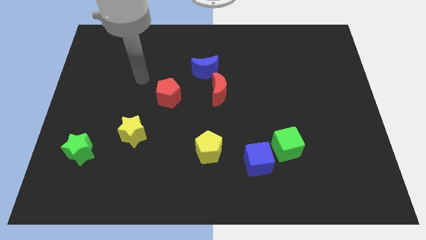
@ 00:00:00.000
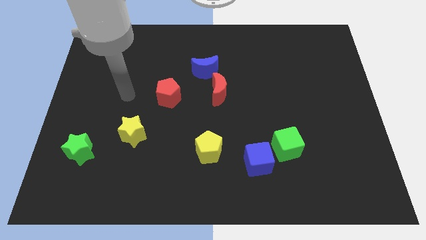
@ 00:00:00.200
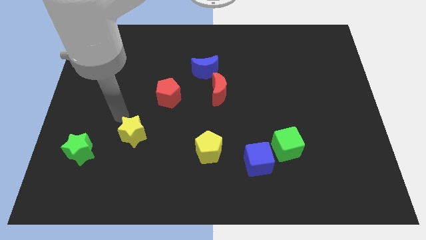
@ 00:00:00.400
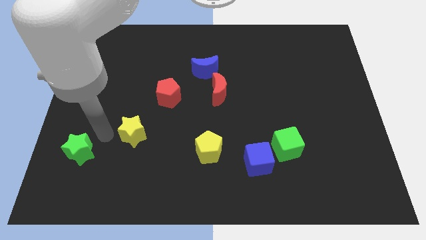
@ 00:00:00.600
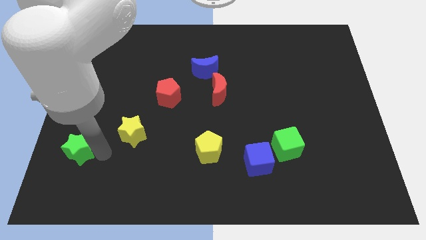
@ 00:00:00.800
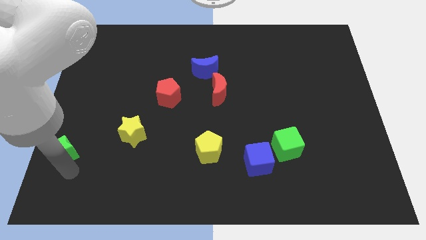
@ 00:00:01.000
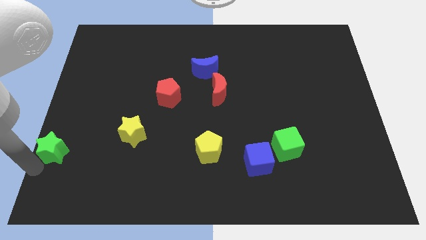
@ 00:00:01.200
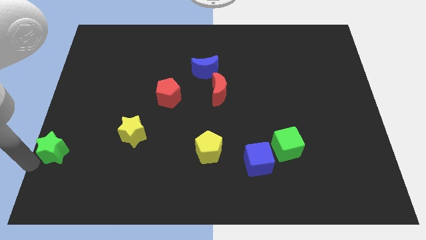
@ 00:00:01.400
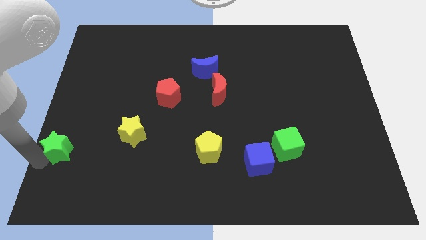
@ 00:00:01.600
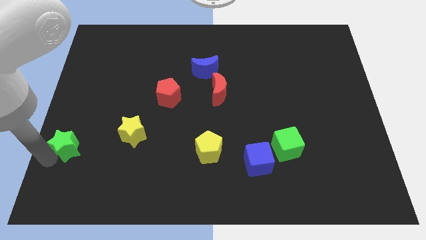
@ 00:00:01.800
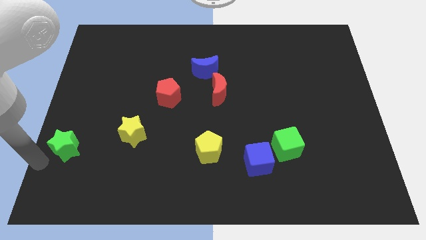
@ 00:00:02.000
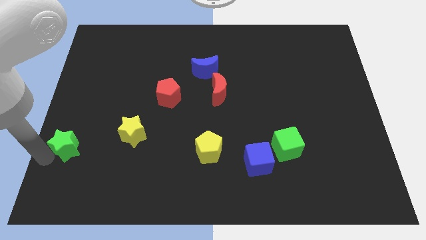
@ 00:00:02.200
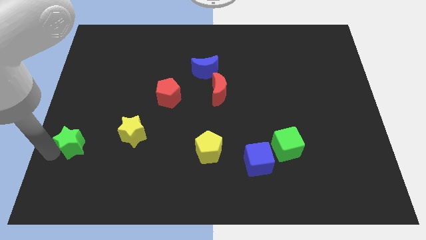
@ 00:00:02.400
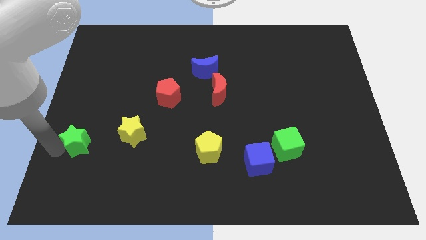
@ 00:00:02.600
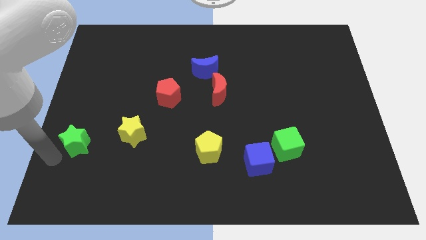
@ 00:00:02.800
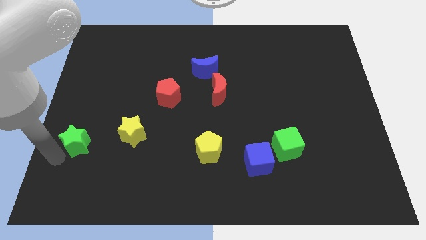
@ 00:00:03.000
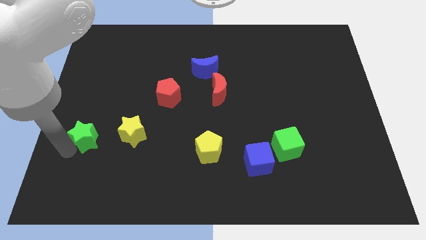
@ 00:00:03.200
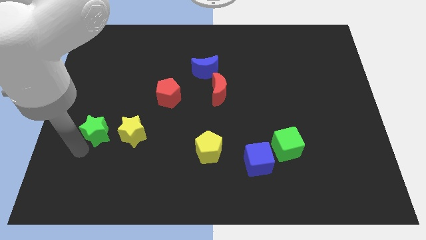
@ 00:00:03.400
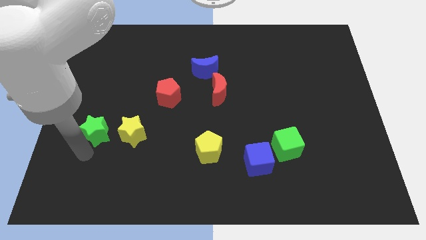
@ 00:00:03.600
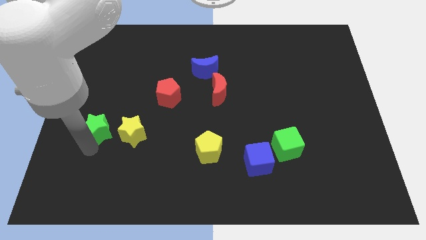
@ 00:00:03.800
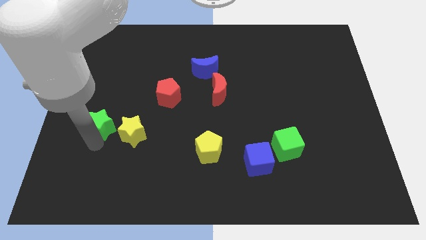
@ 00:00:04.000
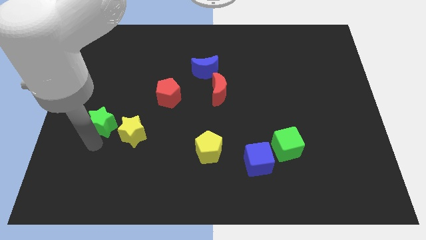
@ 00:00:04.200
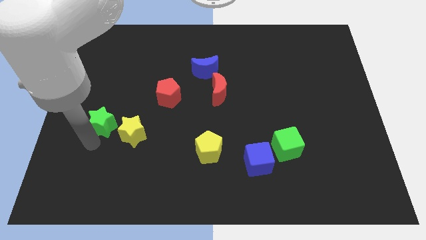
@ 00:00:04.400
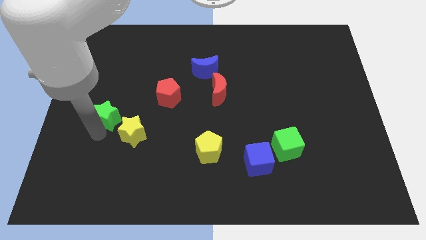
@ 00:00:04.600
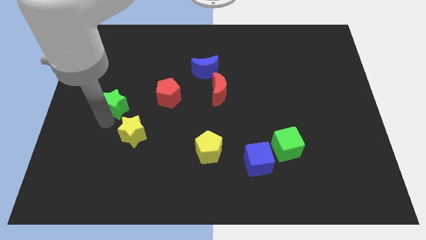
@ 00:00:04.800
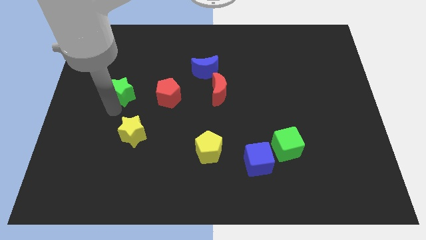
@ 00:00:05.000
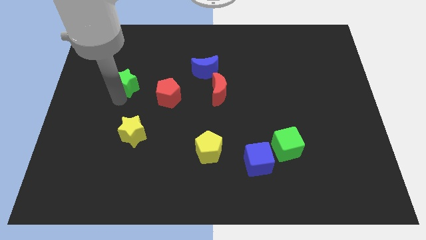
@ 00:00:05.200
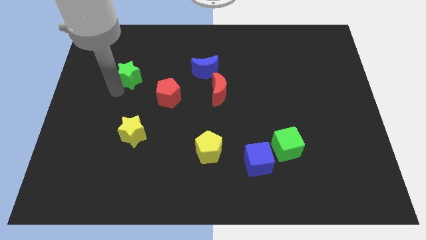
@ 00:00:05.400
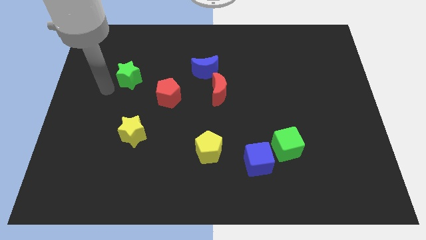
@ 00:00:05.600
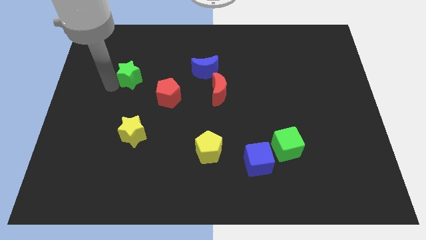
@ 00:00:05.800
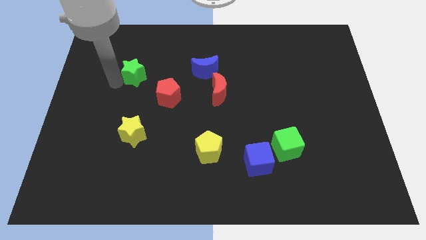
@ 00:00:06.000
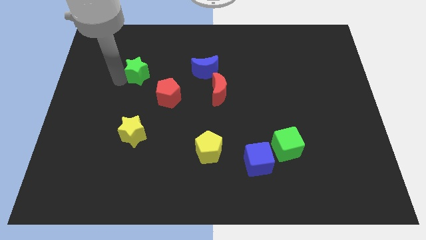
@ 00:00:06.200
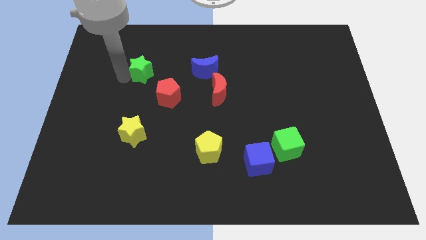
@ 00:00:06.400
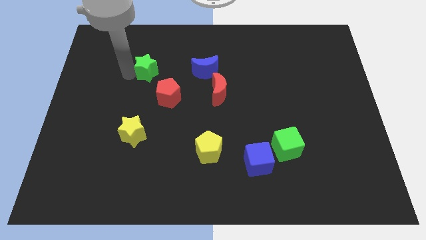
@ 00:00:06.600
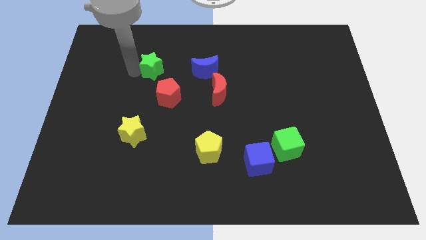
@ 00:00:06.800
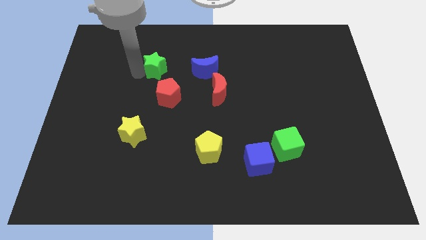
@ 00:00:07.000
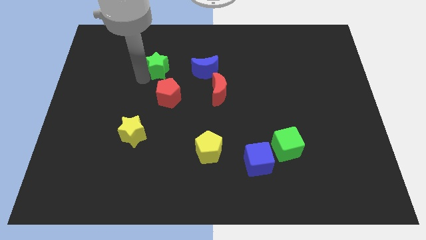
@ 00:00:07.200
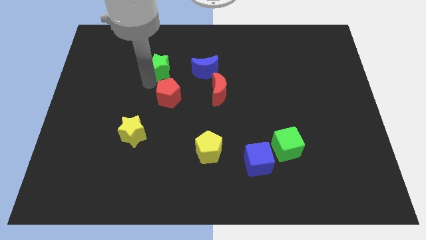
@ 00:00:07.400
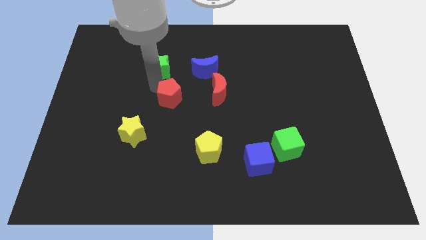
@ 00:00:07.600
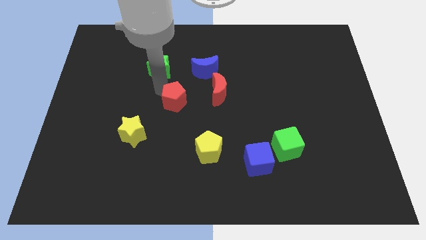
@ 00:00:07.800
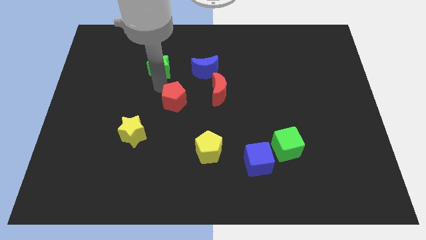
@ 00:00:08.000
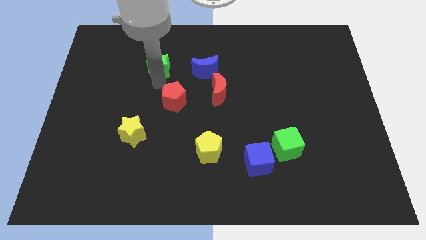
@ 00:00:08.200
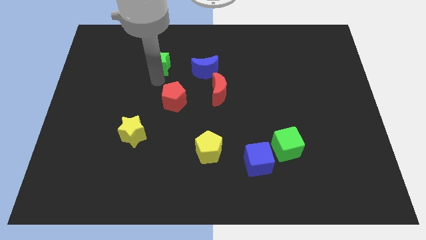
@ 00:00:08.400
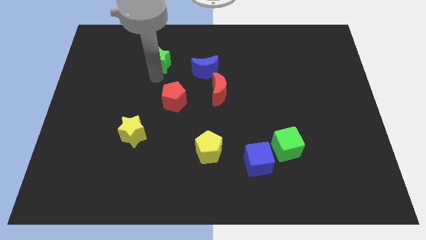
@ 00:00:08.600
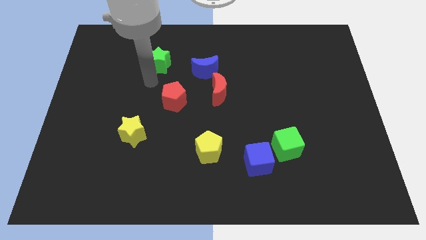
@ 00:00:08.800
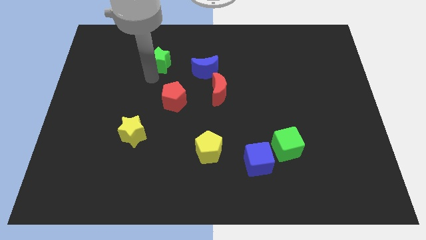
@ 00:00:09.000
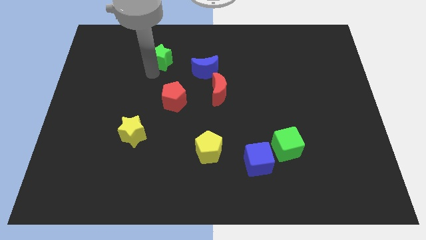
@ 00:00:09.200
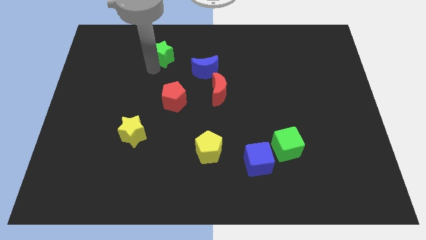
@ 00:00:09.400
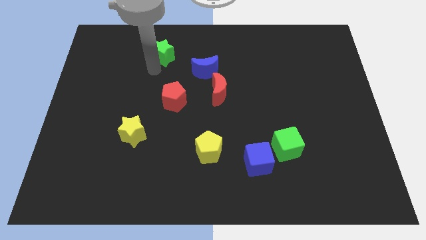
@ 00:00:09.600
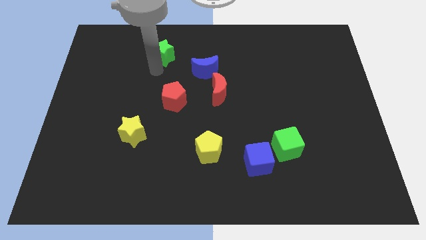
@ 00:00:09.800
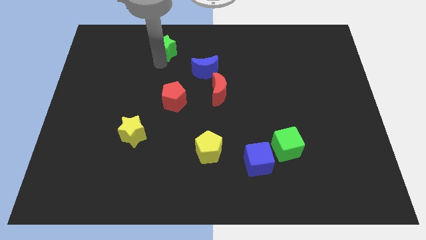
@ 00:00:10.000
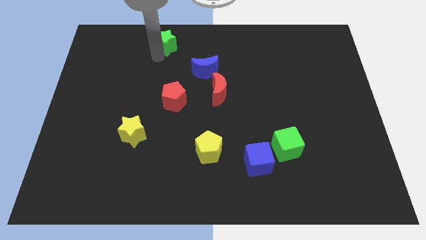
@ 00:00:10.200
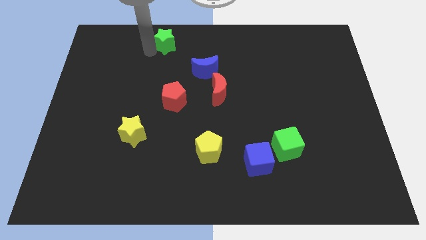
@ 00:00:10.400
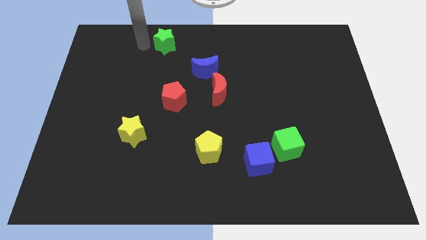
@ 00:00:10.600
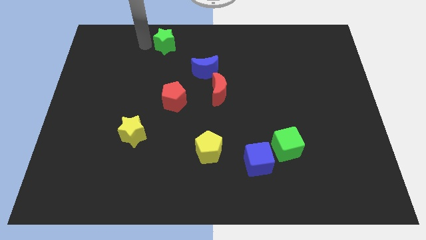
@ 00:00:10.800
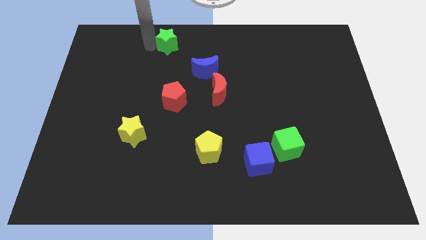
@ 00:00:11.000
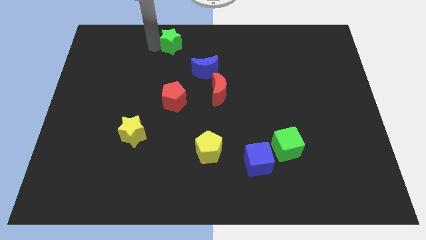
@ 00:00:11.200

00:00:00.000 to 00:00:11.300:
push the green star to the towards your base

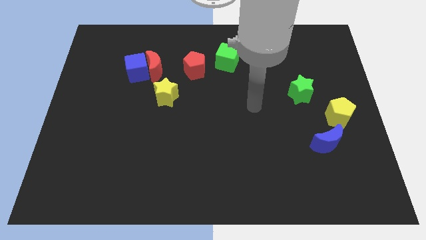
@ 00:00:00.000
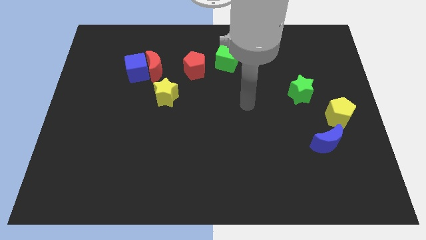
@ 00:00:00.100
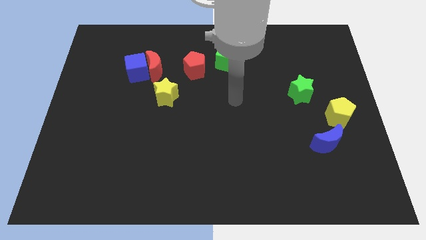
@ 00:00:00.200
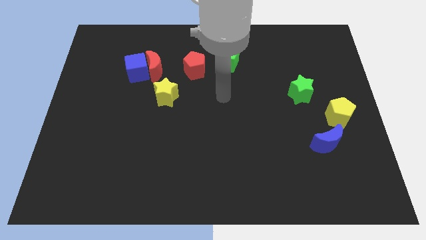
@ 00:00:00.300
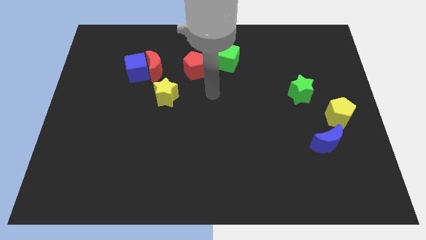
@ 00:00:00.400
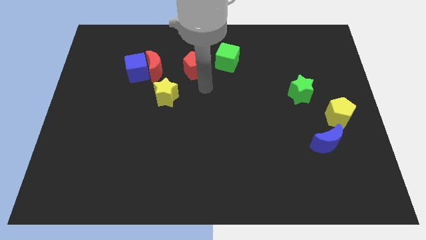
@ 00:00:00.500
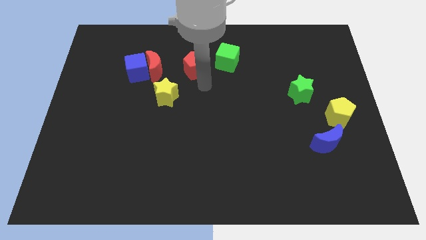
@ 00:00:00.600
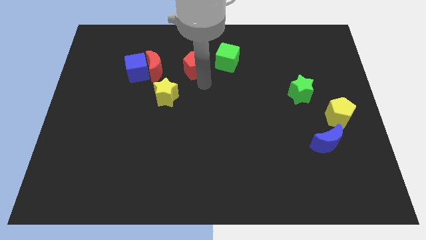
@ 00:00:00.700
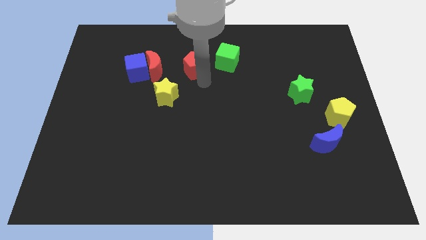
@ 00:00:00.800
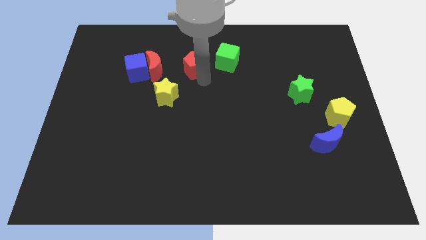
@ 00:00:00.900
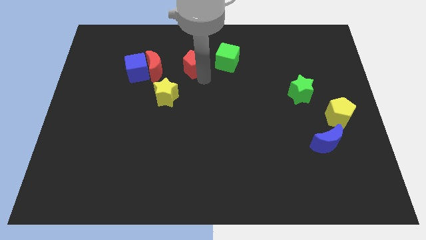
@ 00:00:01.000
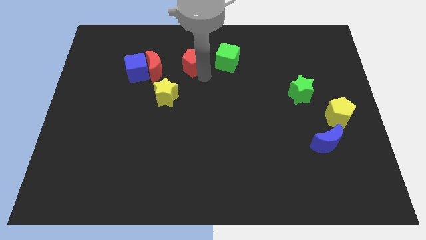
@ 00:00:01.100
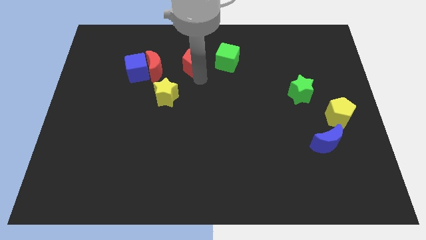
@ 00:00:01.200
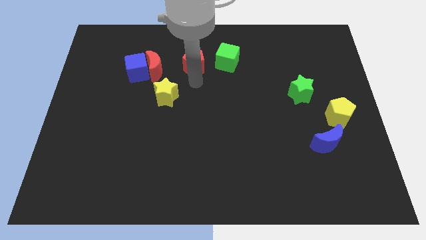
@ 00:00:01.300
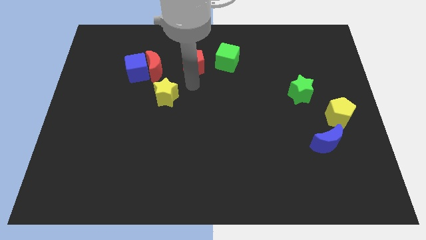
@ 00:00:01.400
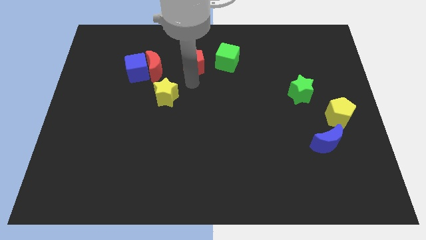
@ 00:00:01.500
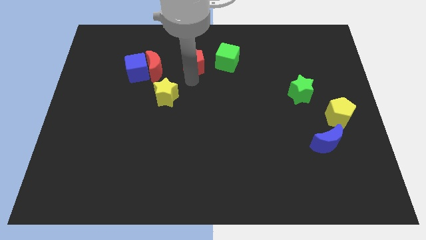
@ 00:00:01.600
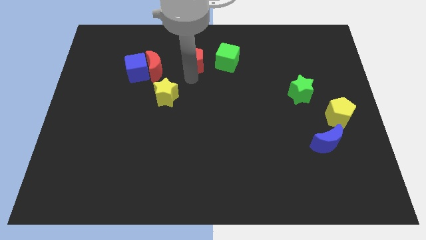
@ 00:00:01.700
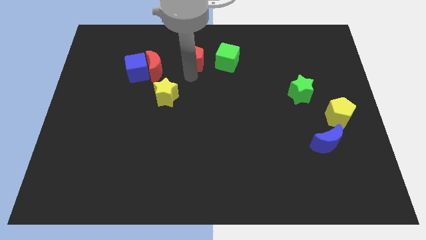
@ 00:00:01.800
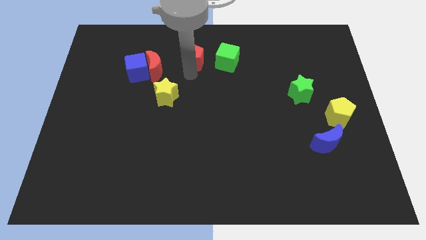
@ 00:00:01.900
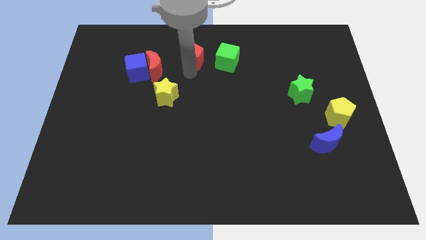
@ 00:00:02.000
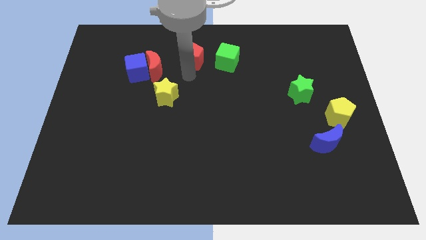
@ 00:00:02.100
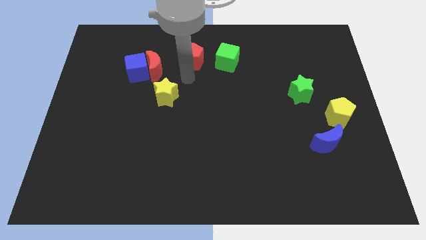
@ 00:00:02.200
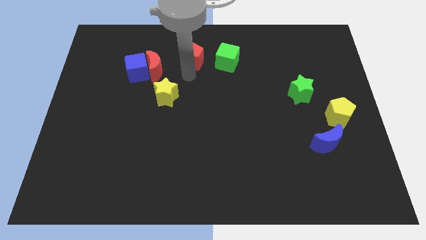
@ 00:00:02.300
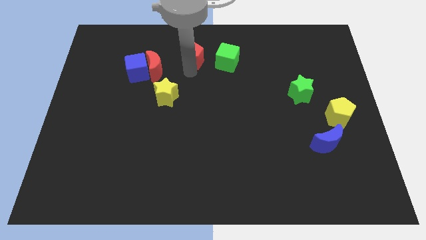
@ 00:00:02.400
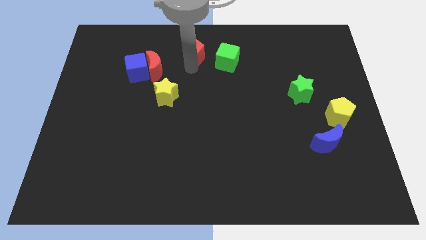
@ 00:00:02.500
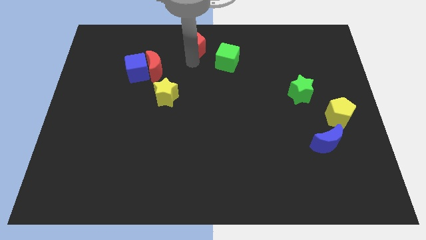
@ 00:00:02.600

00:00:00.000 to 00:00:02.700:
move the red pentagon to the towards your base
